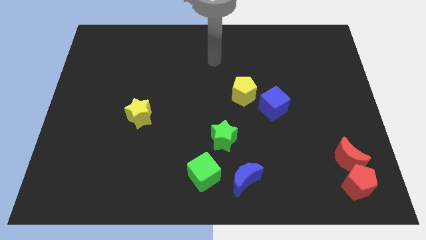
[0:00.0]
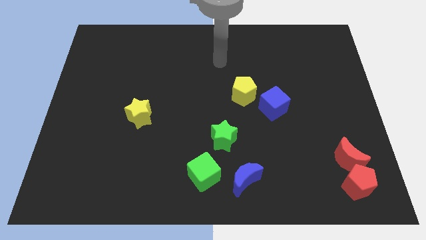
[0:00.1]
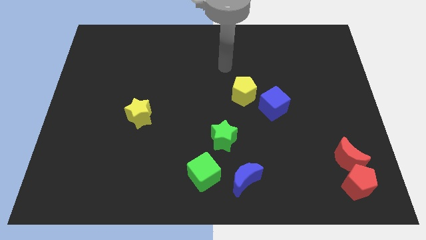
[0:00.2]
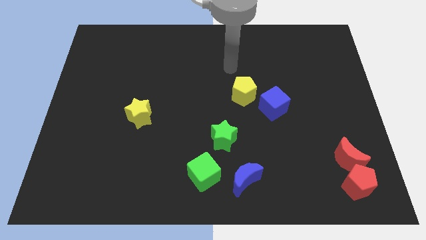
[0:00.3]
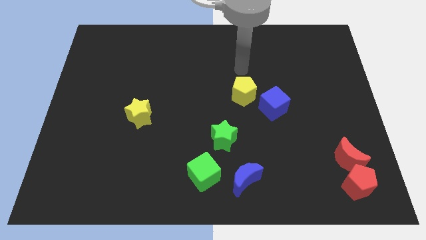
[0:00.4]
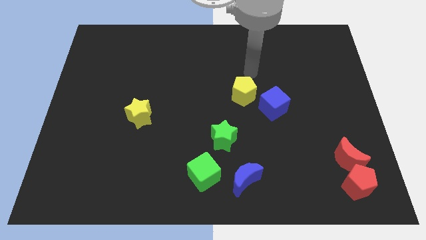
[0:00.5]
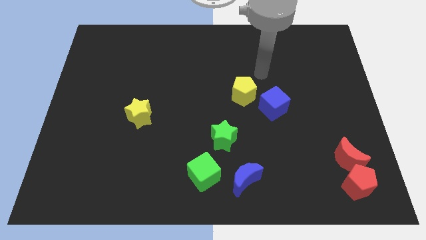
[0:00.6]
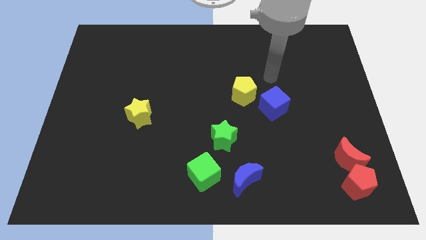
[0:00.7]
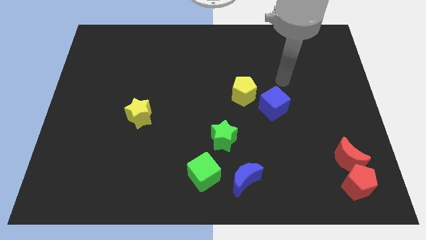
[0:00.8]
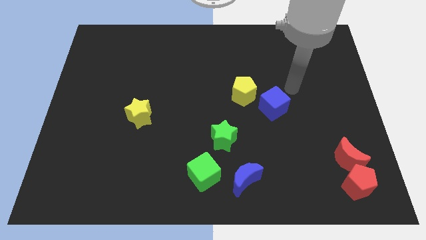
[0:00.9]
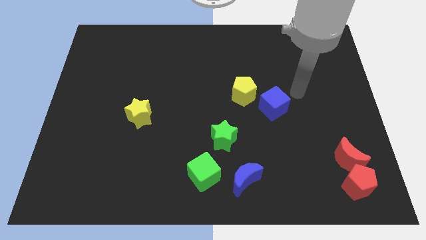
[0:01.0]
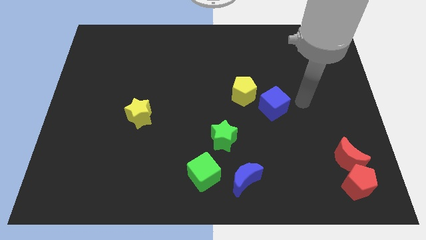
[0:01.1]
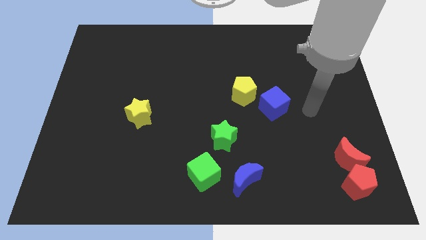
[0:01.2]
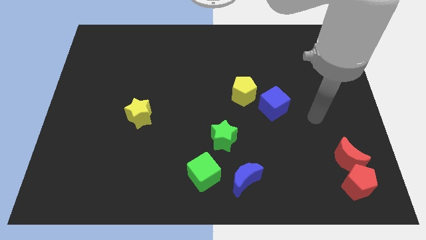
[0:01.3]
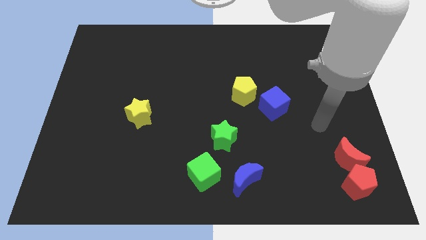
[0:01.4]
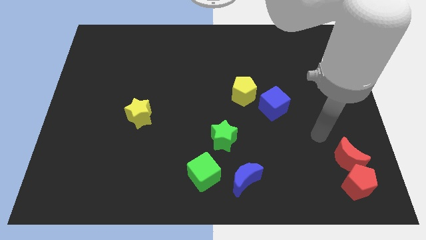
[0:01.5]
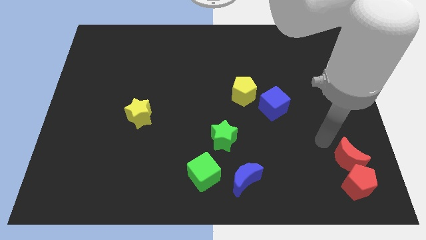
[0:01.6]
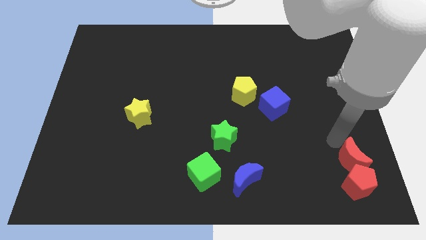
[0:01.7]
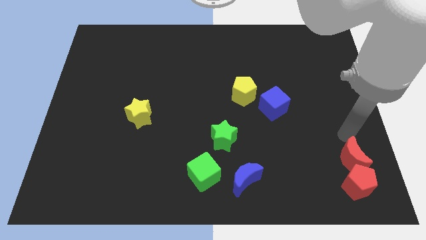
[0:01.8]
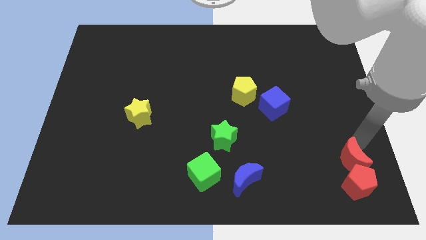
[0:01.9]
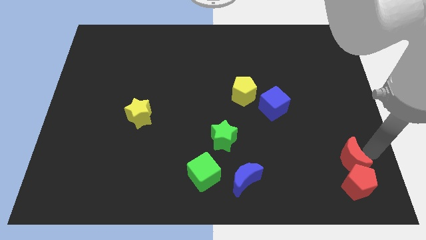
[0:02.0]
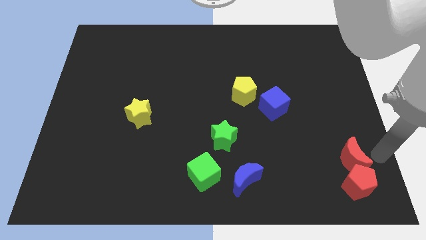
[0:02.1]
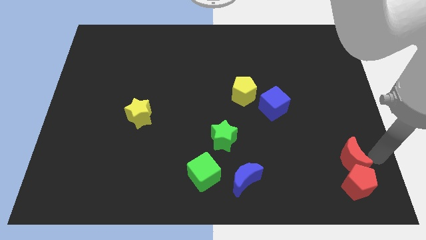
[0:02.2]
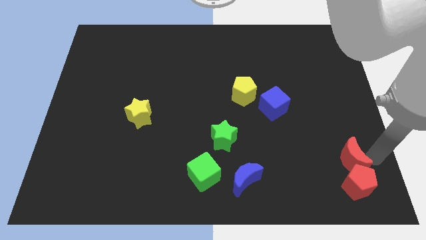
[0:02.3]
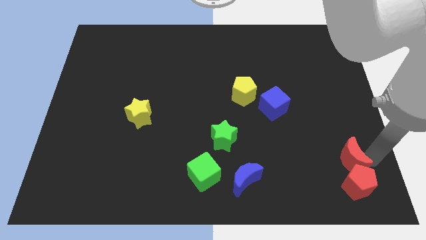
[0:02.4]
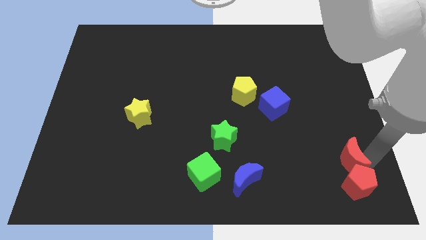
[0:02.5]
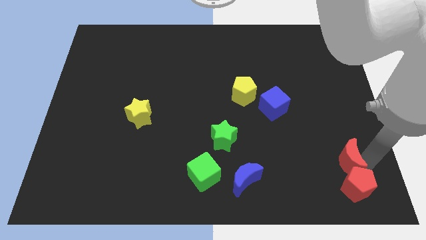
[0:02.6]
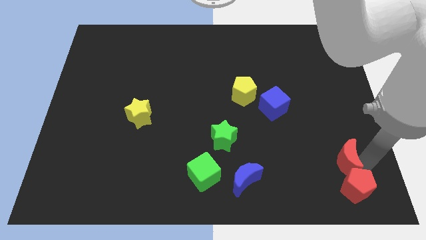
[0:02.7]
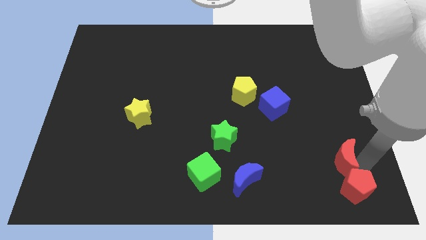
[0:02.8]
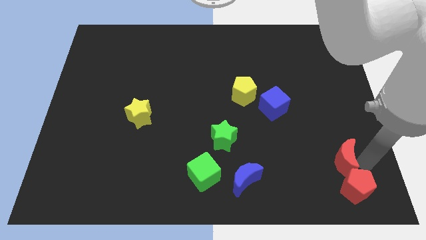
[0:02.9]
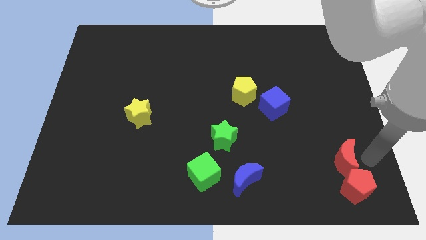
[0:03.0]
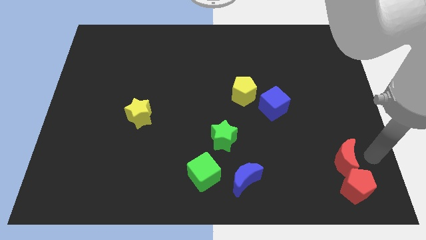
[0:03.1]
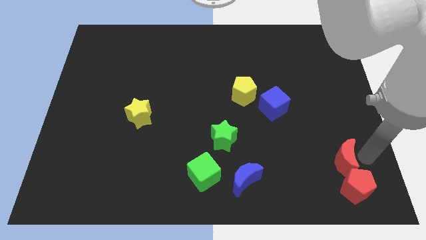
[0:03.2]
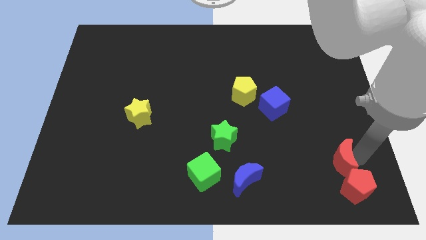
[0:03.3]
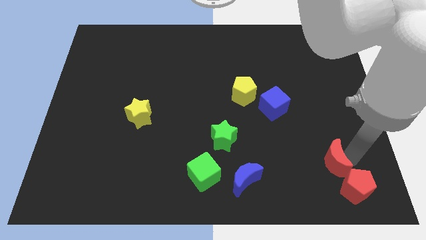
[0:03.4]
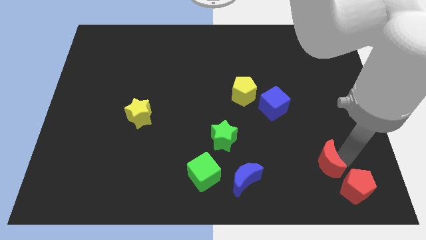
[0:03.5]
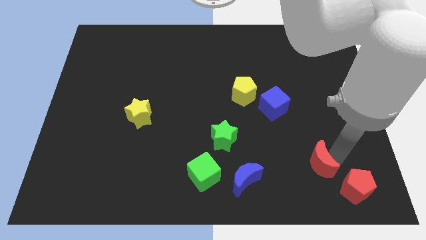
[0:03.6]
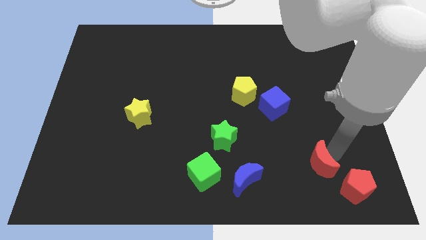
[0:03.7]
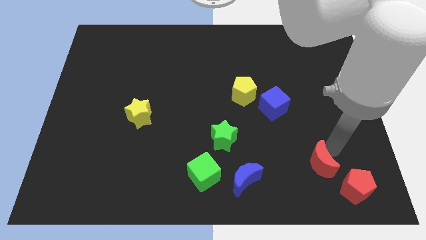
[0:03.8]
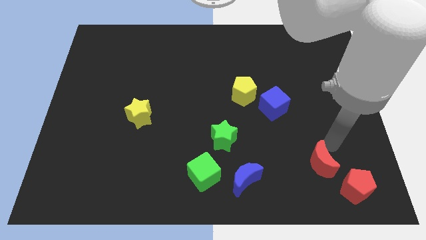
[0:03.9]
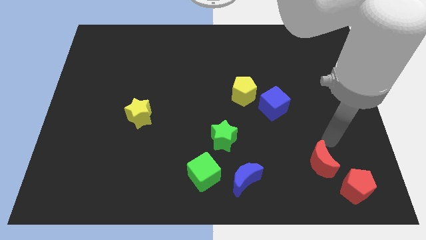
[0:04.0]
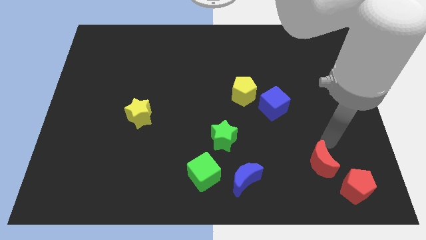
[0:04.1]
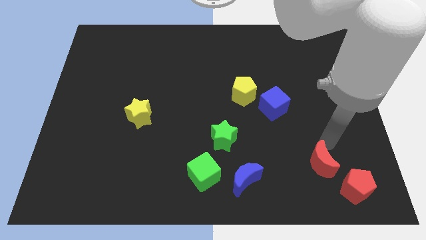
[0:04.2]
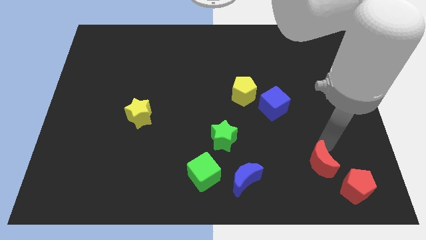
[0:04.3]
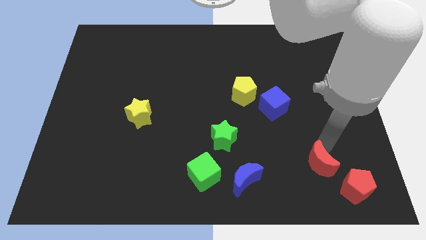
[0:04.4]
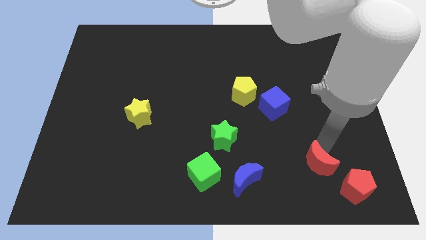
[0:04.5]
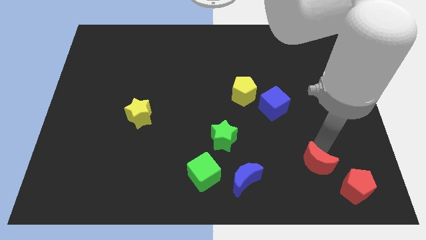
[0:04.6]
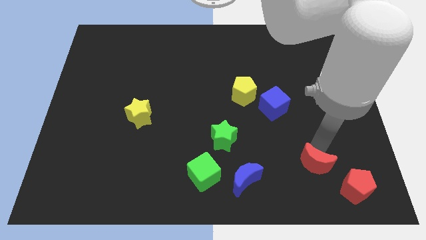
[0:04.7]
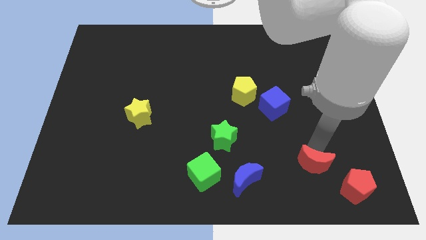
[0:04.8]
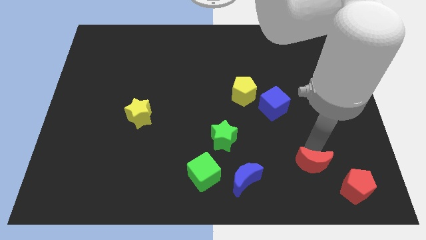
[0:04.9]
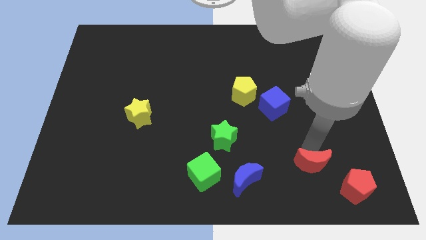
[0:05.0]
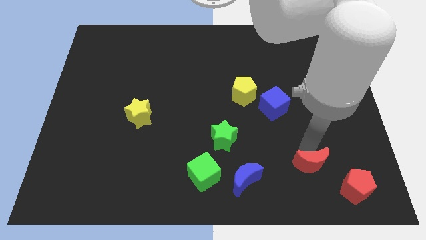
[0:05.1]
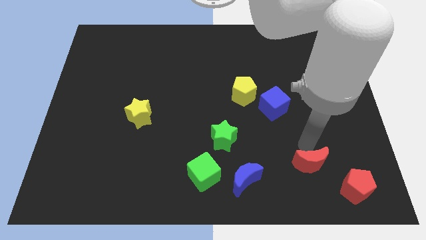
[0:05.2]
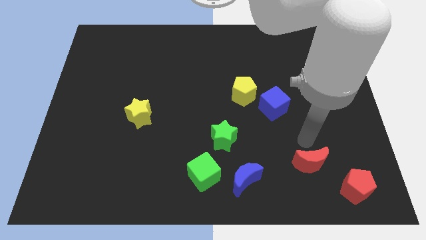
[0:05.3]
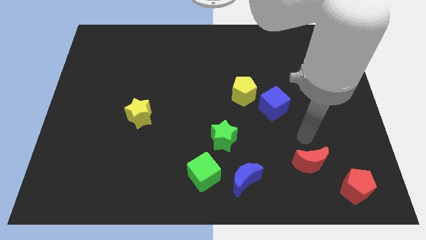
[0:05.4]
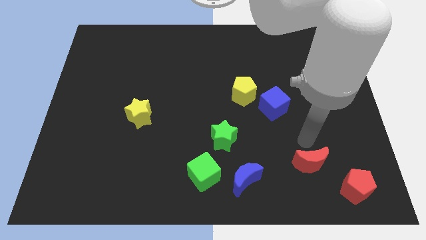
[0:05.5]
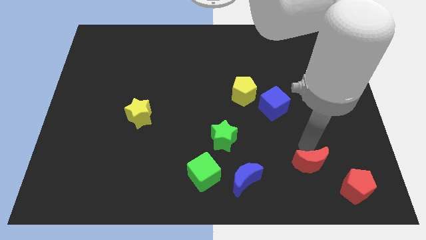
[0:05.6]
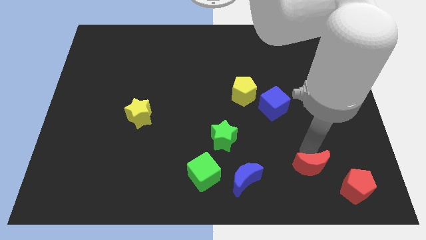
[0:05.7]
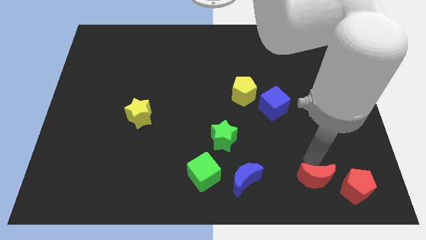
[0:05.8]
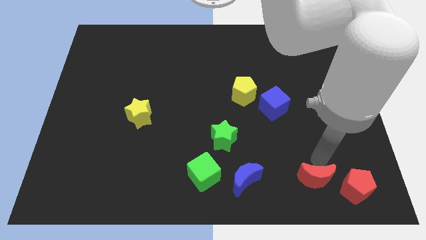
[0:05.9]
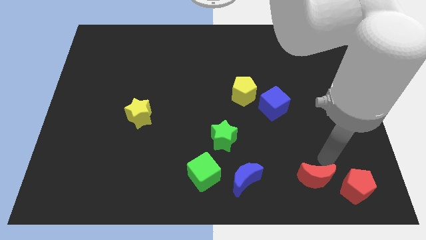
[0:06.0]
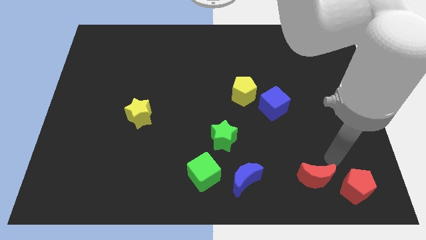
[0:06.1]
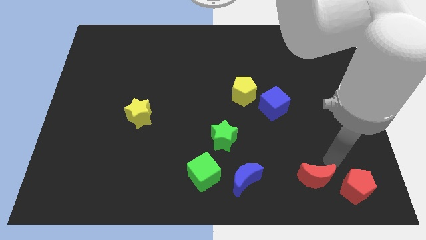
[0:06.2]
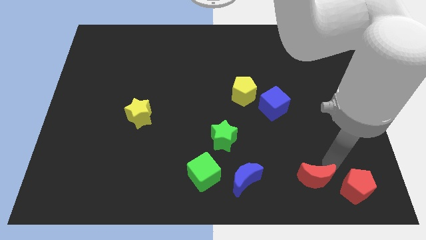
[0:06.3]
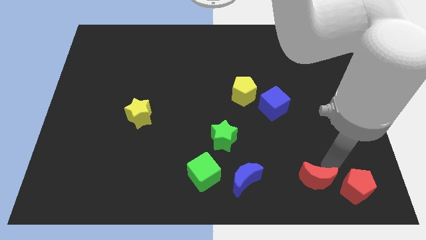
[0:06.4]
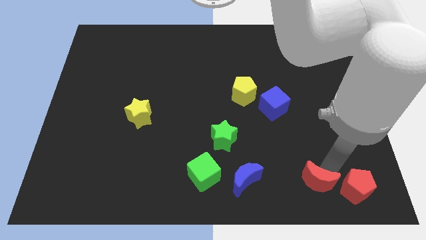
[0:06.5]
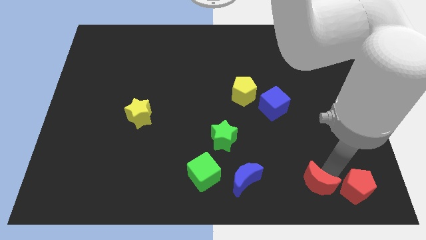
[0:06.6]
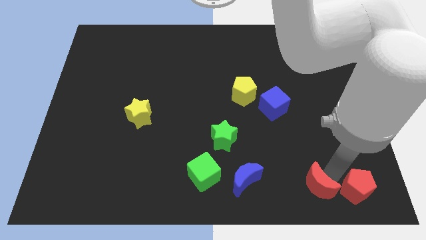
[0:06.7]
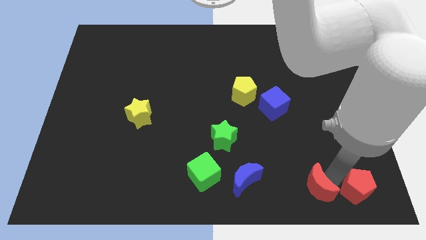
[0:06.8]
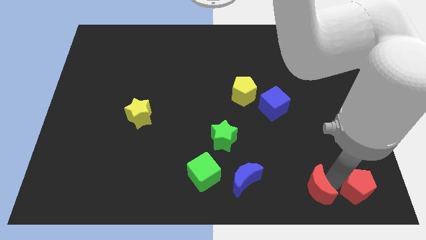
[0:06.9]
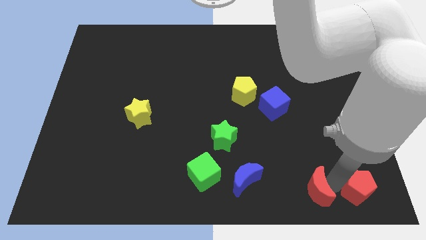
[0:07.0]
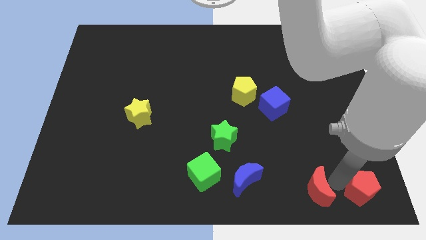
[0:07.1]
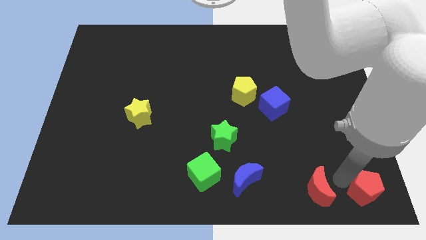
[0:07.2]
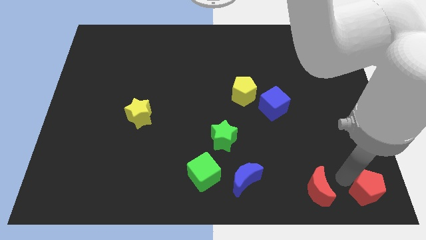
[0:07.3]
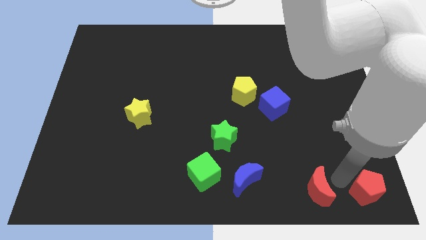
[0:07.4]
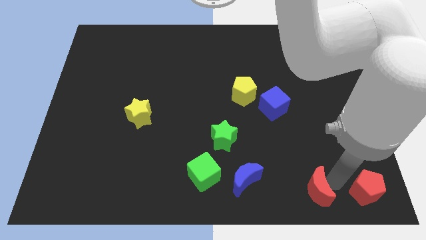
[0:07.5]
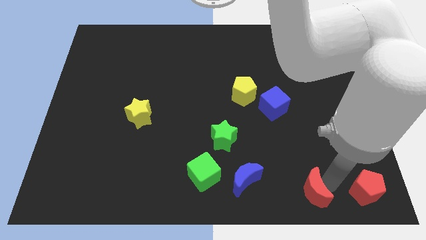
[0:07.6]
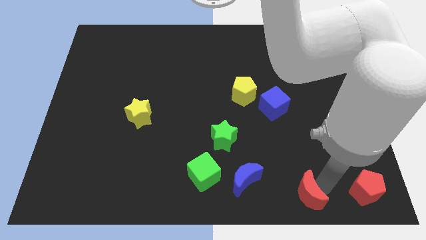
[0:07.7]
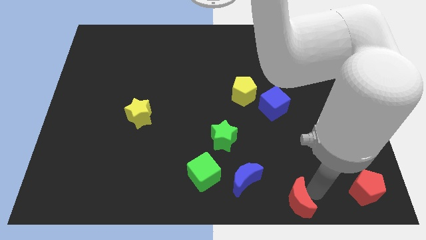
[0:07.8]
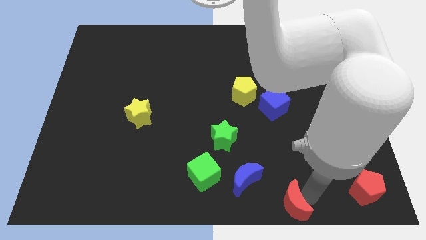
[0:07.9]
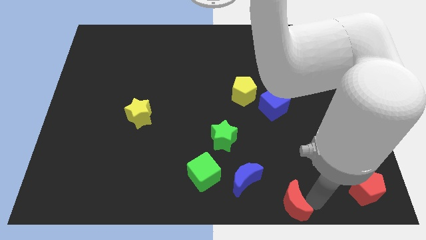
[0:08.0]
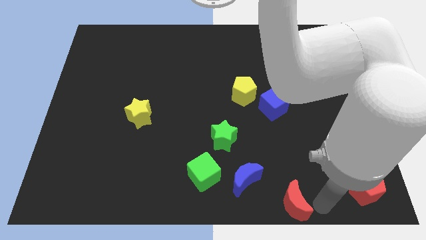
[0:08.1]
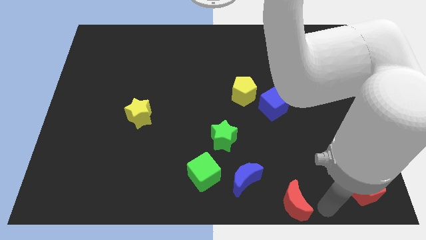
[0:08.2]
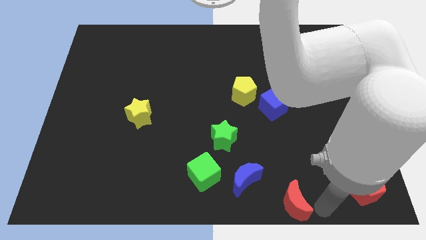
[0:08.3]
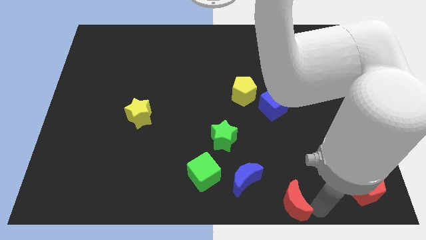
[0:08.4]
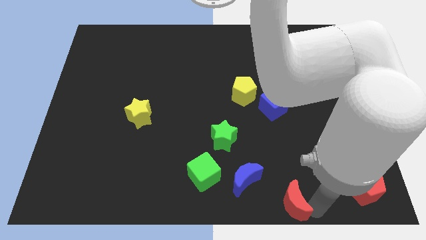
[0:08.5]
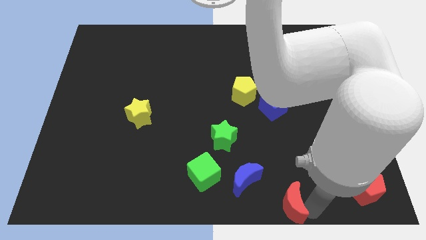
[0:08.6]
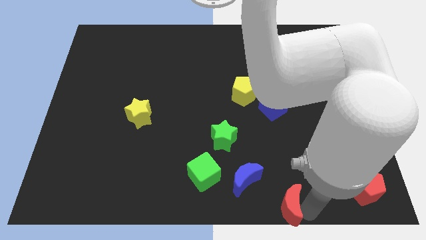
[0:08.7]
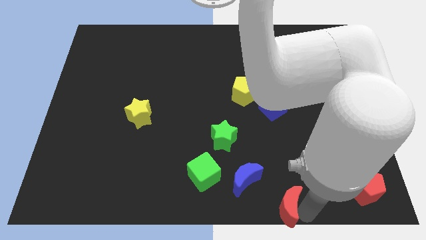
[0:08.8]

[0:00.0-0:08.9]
slide the red moon to the bottom side
